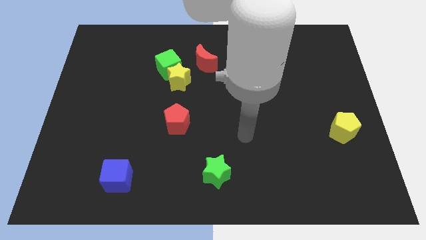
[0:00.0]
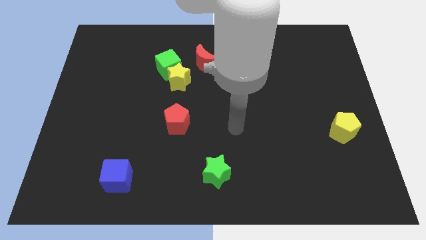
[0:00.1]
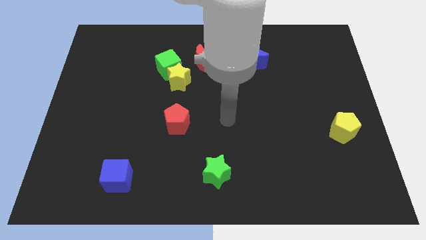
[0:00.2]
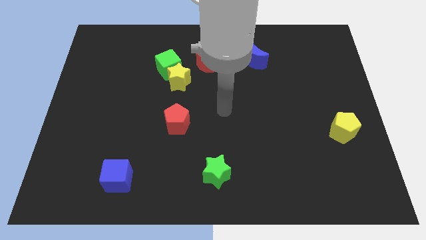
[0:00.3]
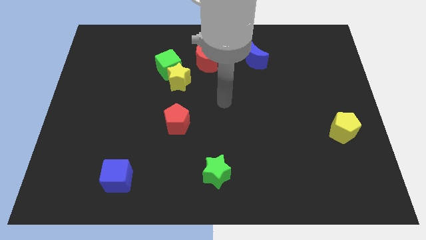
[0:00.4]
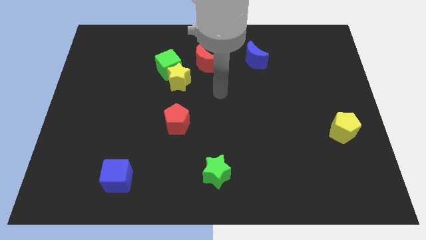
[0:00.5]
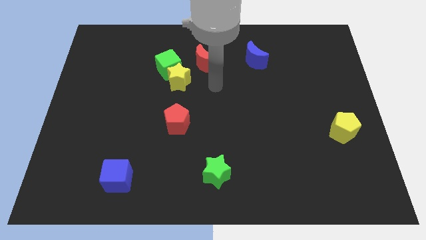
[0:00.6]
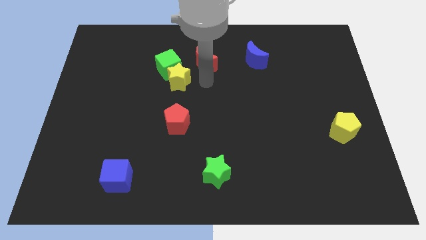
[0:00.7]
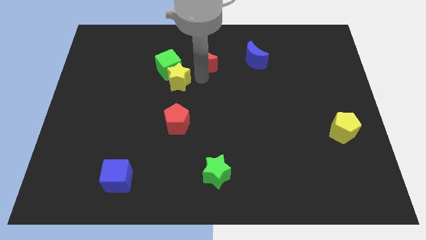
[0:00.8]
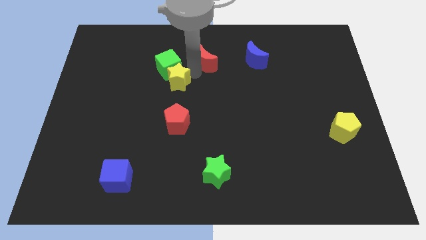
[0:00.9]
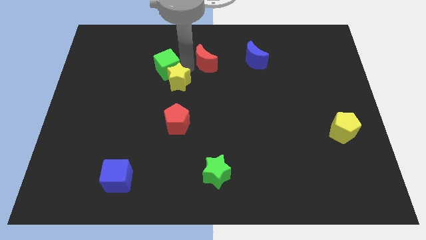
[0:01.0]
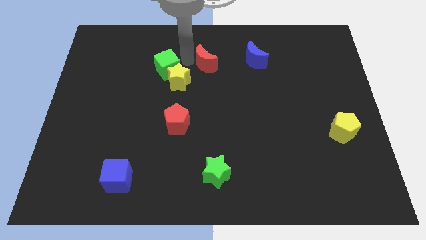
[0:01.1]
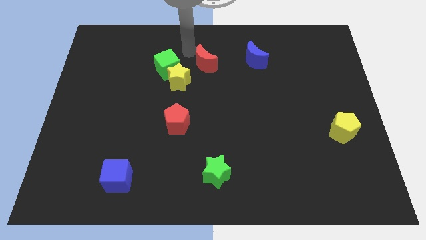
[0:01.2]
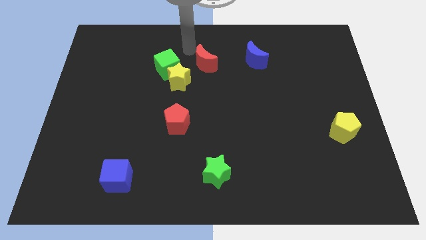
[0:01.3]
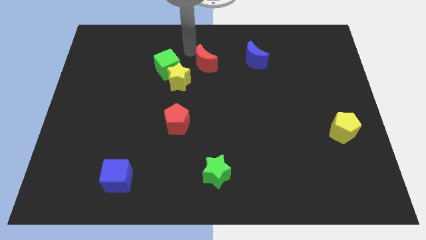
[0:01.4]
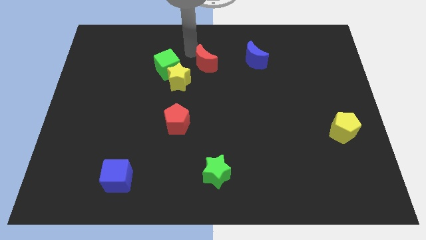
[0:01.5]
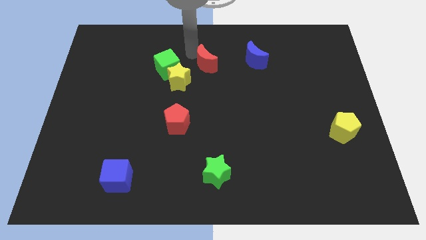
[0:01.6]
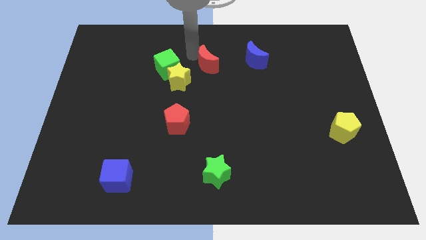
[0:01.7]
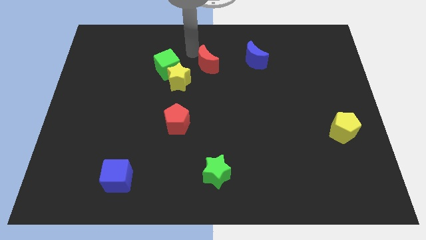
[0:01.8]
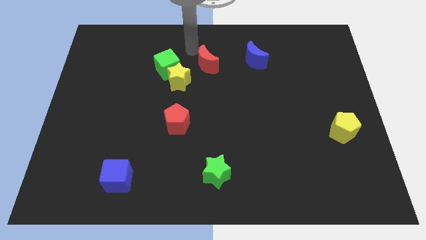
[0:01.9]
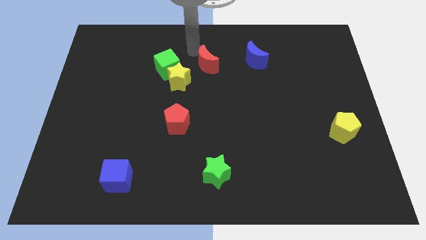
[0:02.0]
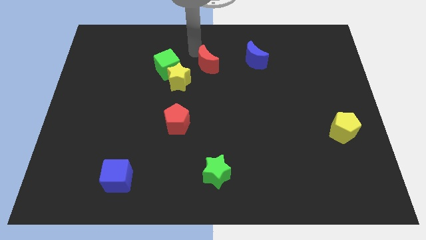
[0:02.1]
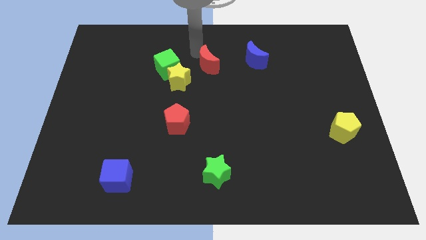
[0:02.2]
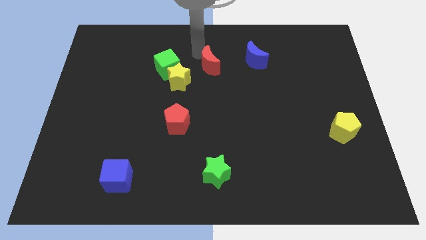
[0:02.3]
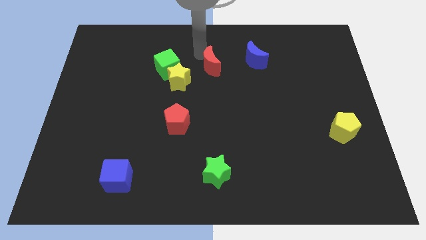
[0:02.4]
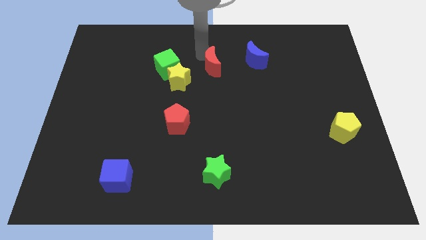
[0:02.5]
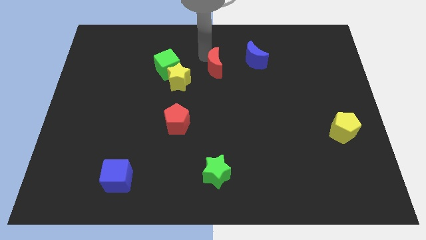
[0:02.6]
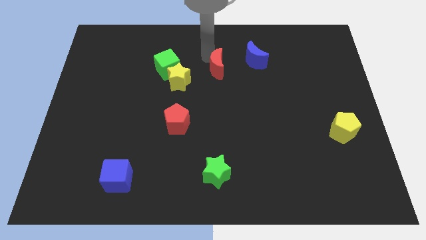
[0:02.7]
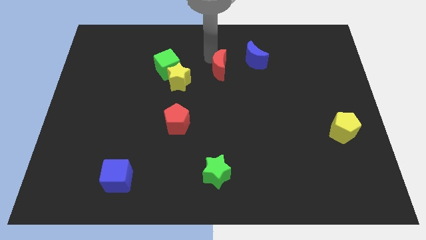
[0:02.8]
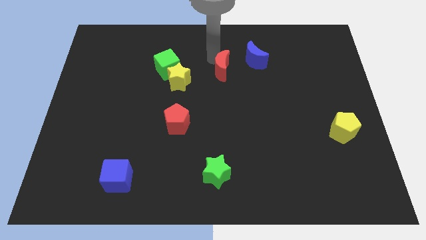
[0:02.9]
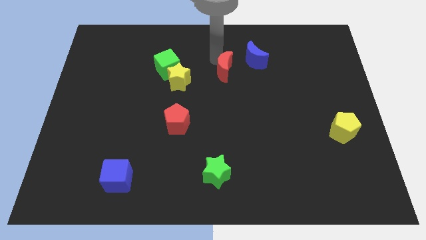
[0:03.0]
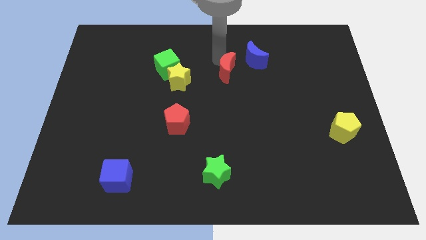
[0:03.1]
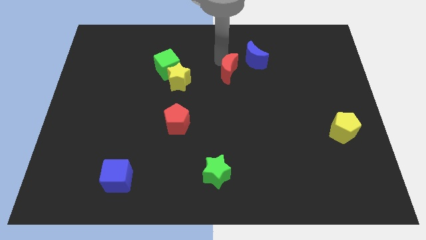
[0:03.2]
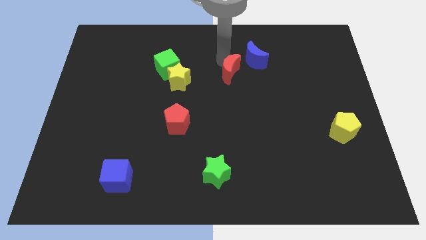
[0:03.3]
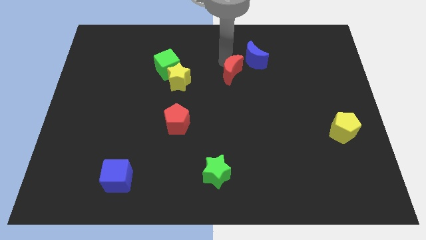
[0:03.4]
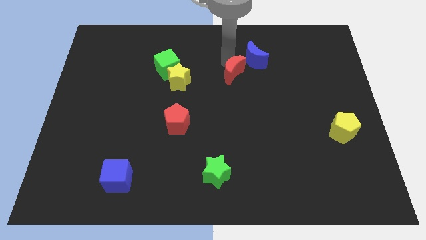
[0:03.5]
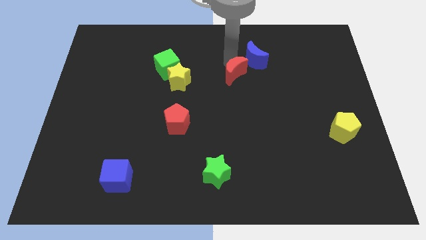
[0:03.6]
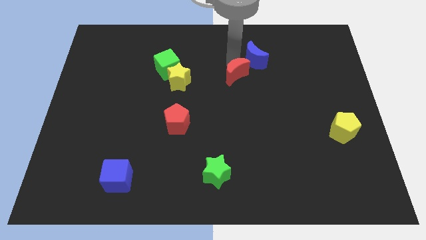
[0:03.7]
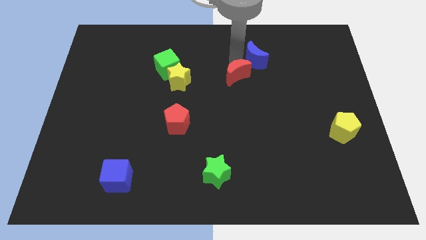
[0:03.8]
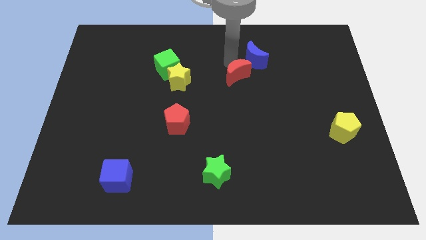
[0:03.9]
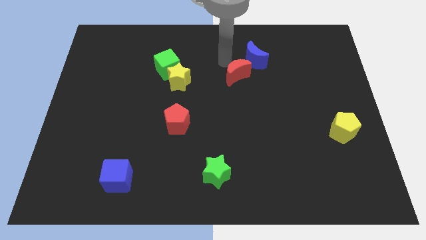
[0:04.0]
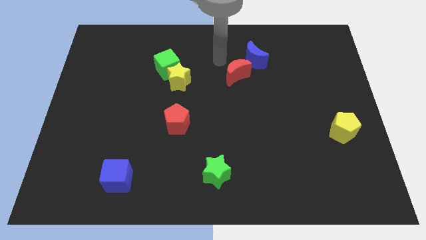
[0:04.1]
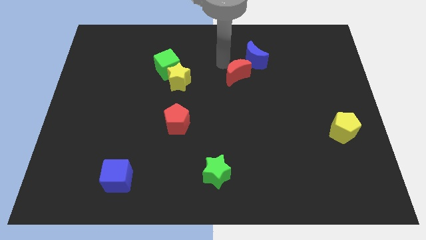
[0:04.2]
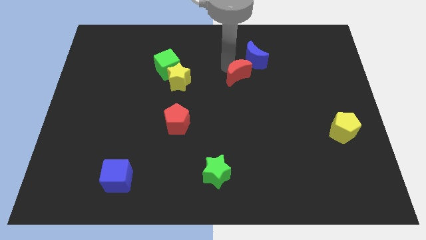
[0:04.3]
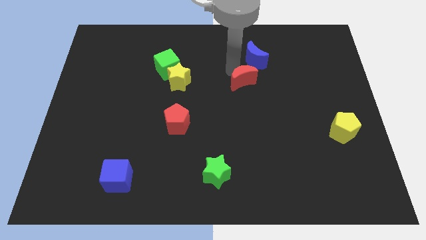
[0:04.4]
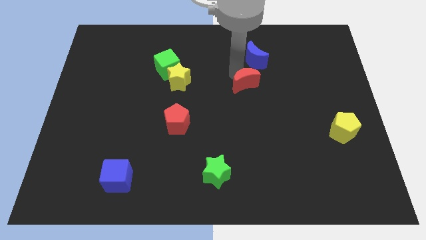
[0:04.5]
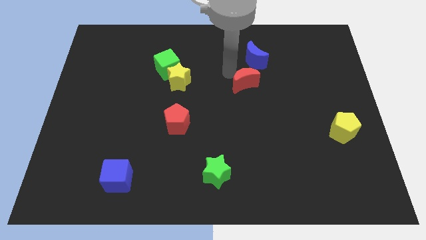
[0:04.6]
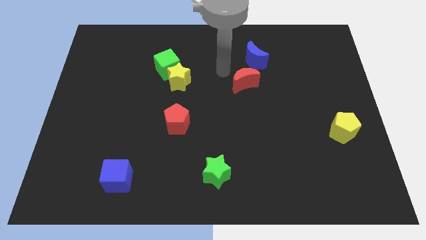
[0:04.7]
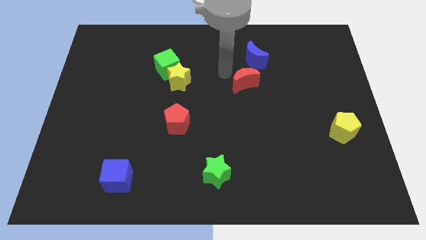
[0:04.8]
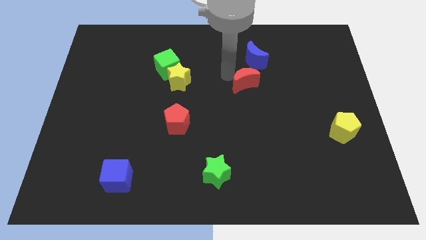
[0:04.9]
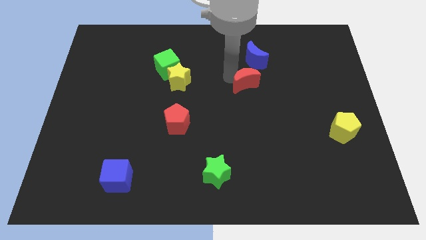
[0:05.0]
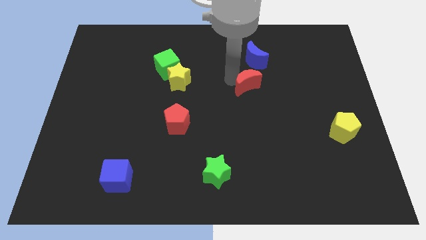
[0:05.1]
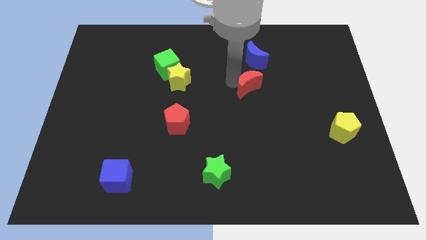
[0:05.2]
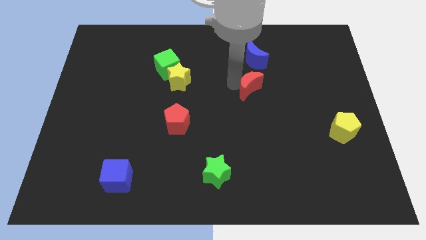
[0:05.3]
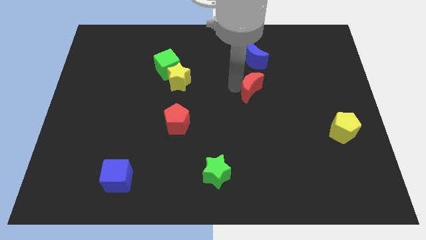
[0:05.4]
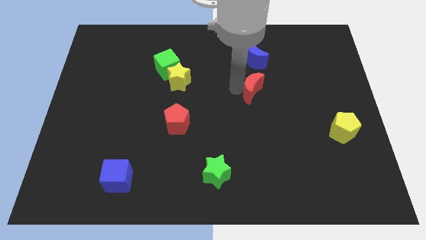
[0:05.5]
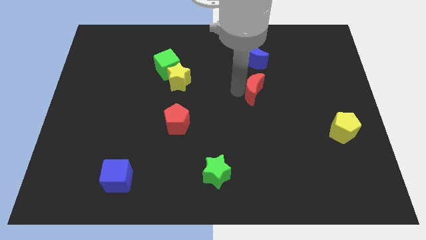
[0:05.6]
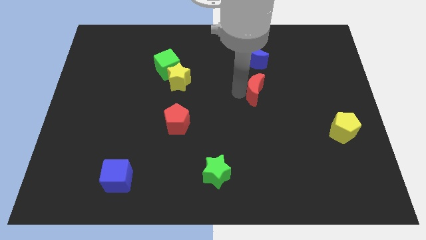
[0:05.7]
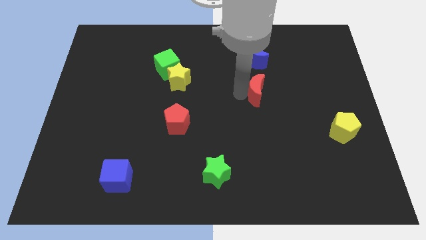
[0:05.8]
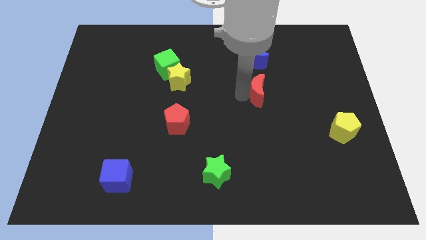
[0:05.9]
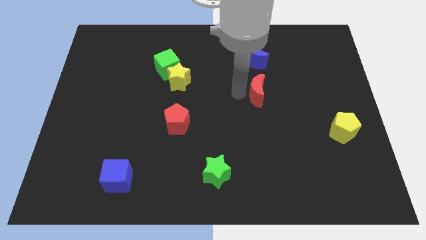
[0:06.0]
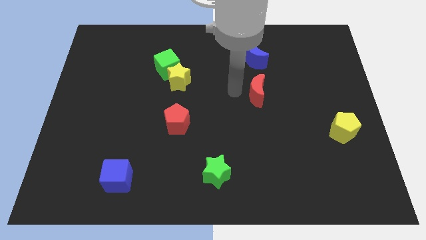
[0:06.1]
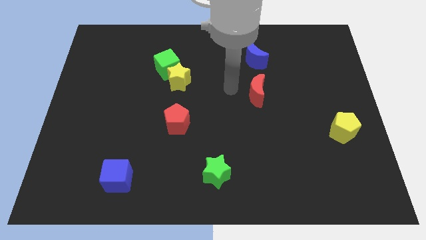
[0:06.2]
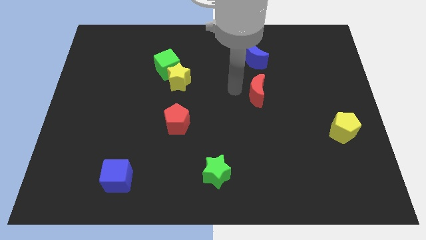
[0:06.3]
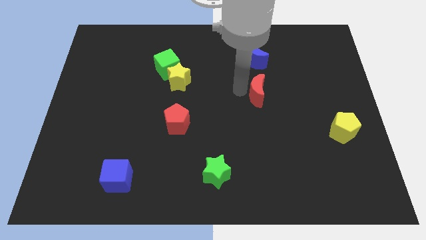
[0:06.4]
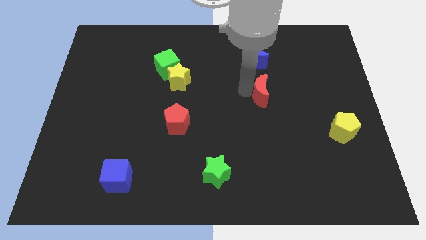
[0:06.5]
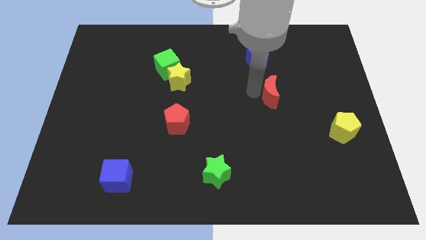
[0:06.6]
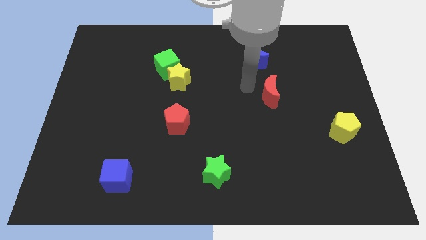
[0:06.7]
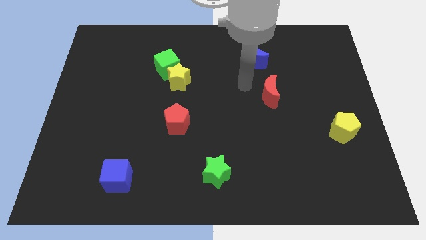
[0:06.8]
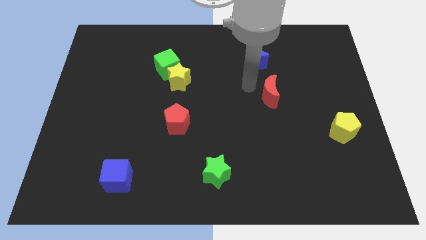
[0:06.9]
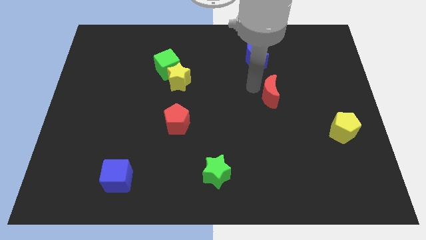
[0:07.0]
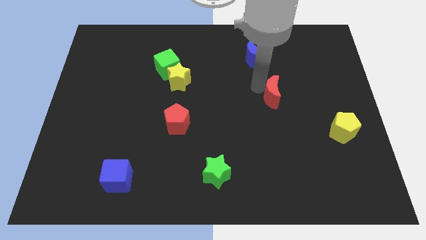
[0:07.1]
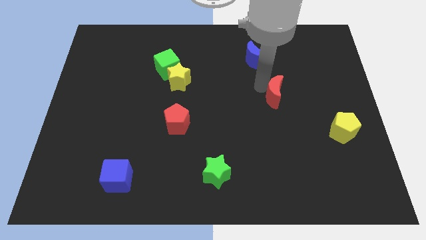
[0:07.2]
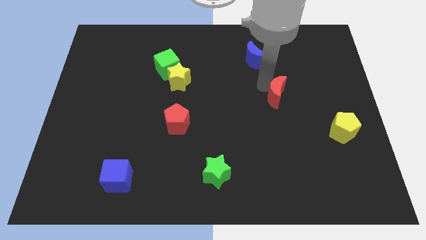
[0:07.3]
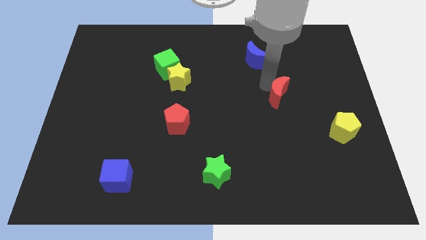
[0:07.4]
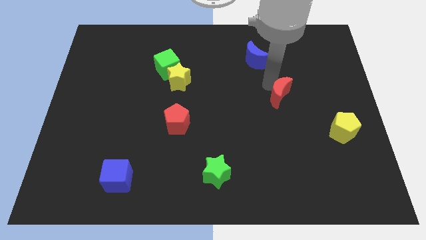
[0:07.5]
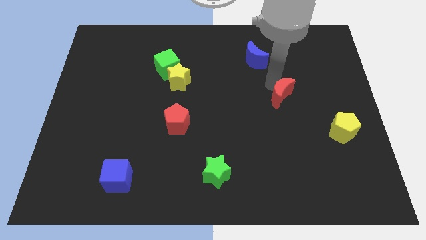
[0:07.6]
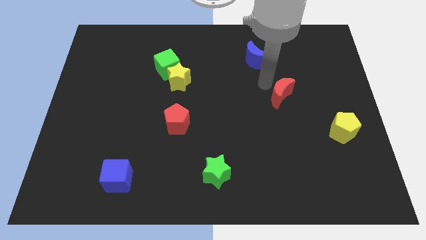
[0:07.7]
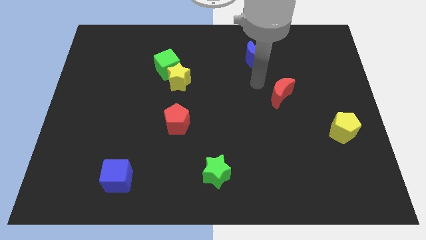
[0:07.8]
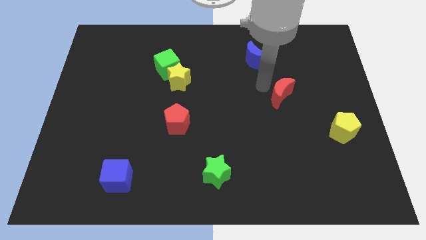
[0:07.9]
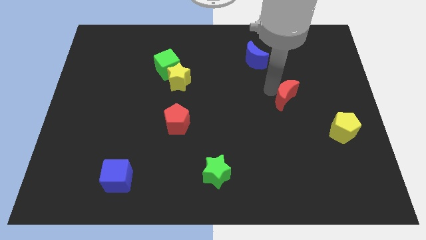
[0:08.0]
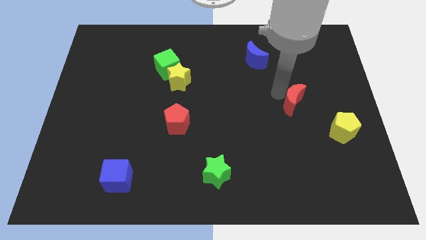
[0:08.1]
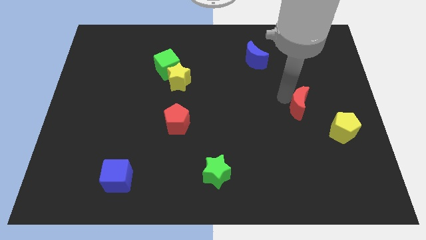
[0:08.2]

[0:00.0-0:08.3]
move the red moon to the top left of the yellow pentagon
